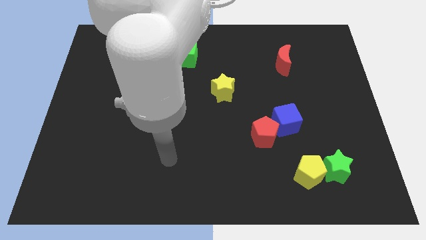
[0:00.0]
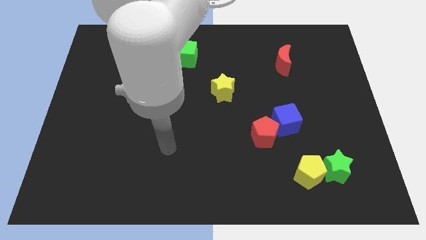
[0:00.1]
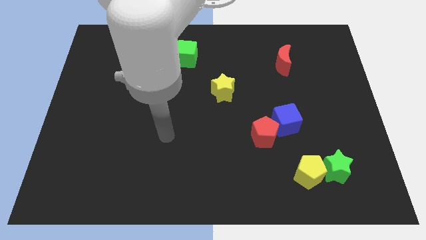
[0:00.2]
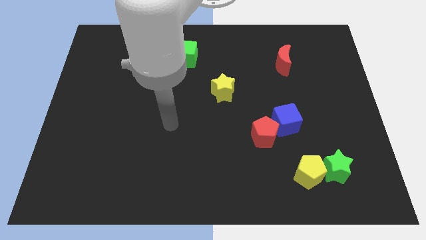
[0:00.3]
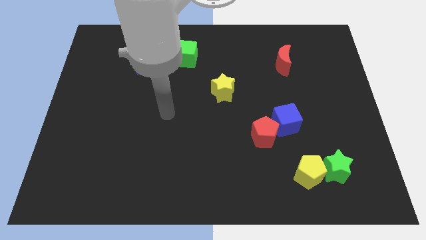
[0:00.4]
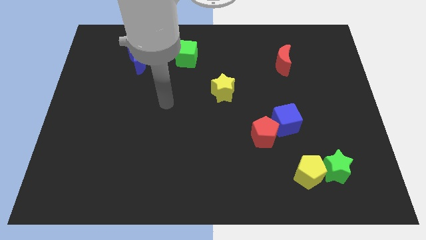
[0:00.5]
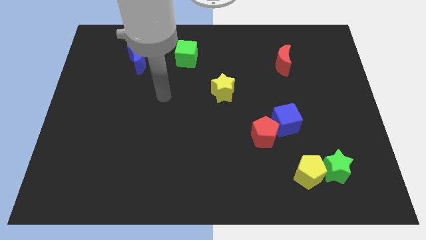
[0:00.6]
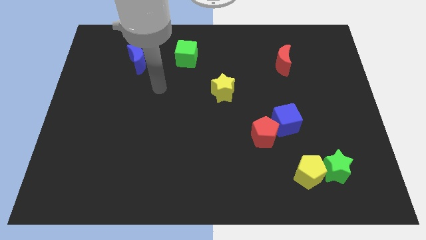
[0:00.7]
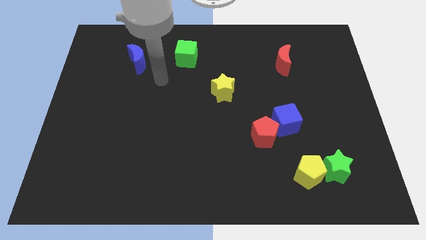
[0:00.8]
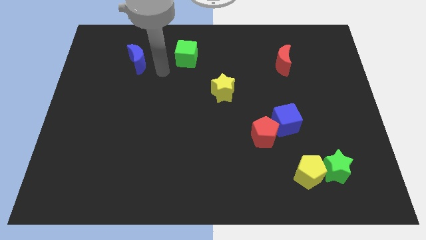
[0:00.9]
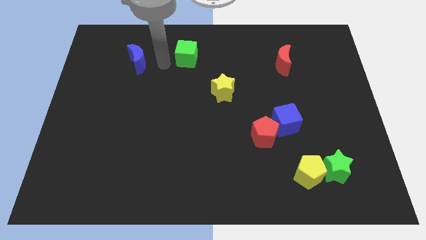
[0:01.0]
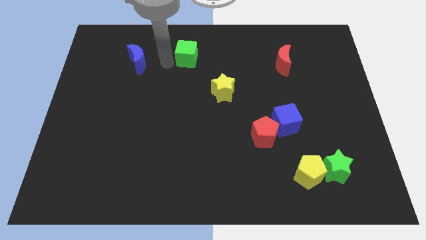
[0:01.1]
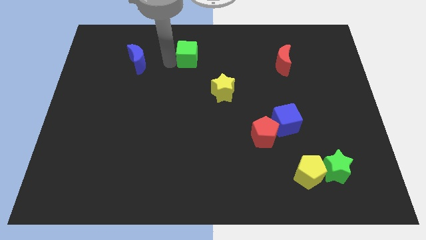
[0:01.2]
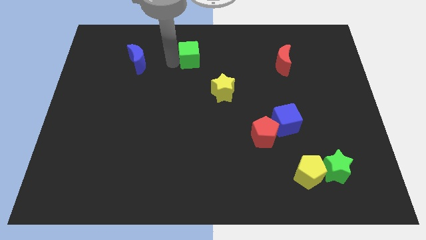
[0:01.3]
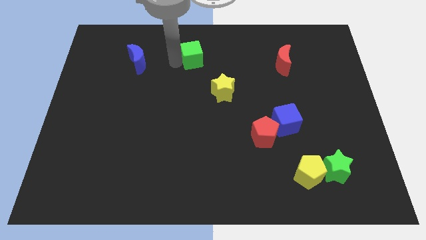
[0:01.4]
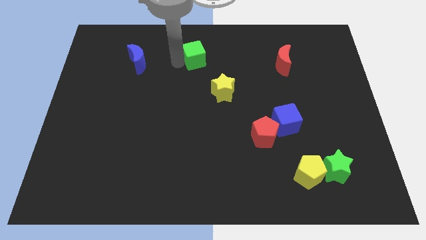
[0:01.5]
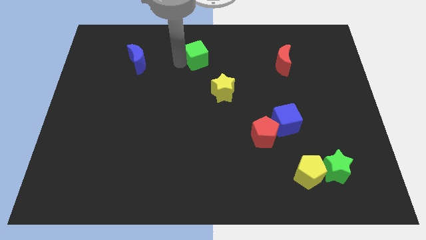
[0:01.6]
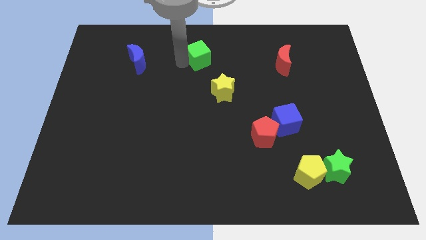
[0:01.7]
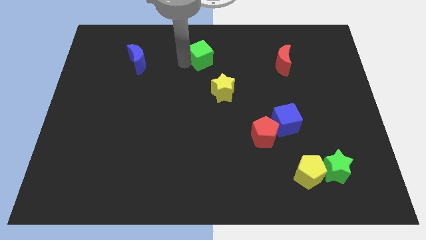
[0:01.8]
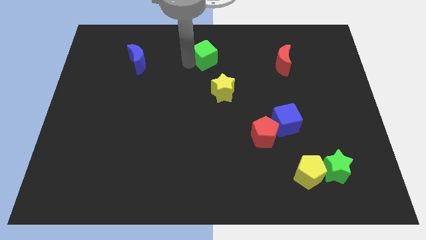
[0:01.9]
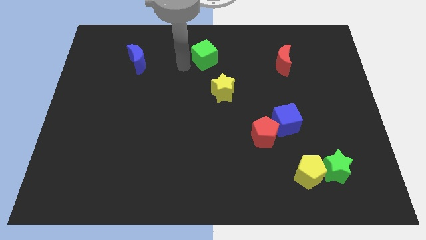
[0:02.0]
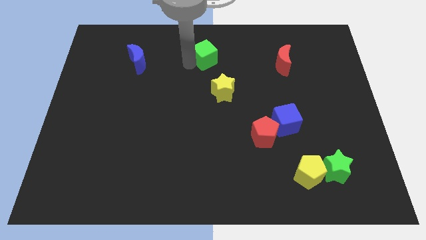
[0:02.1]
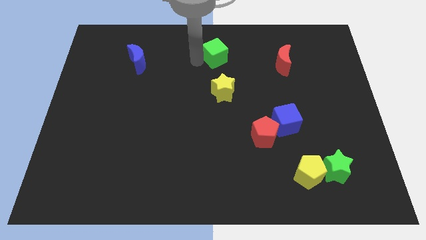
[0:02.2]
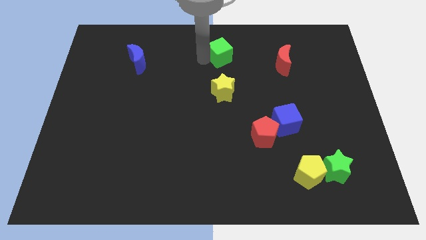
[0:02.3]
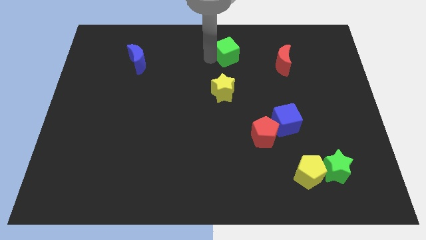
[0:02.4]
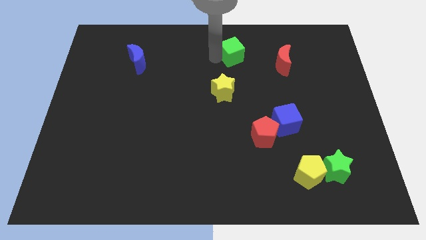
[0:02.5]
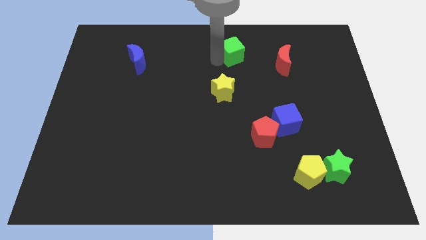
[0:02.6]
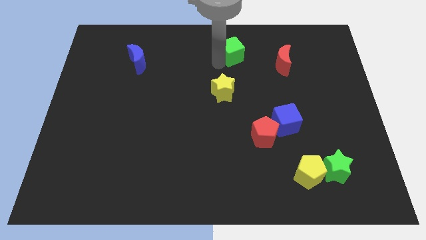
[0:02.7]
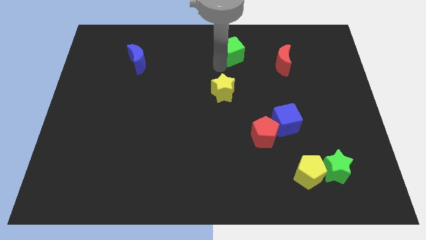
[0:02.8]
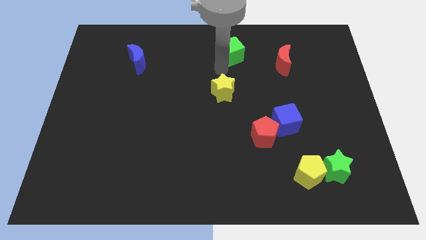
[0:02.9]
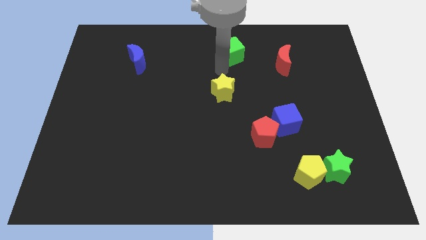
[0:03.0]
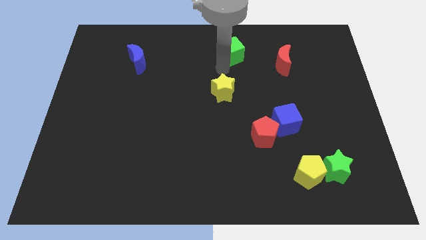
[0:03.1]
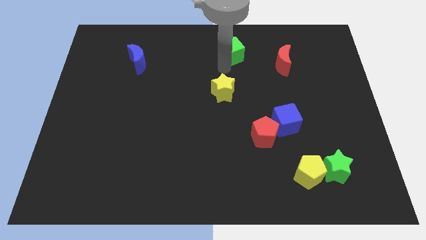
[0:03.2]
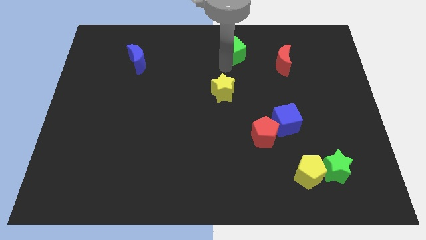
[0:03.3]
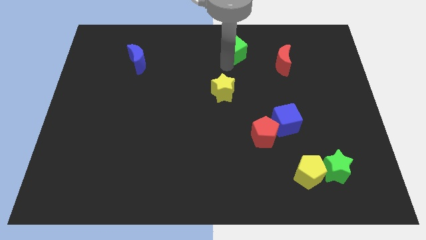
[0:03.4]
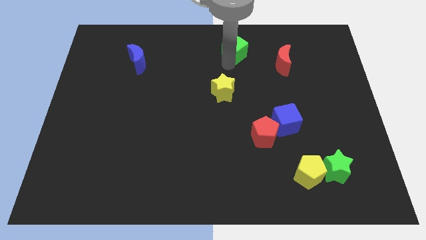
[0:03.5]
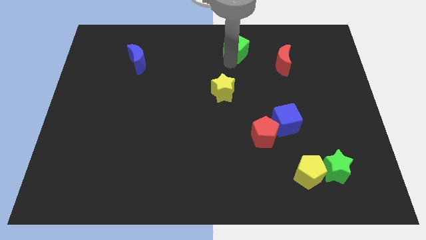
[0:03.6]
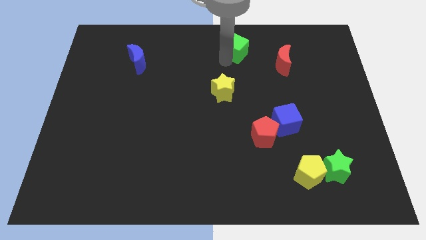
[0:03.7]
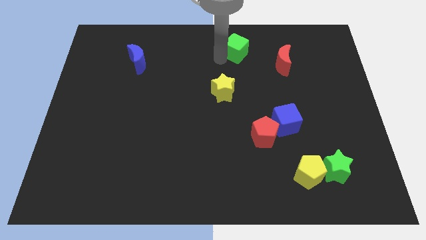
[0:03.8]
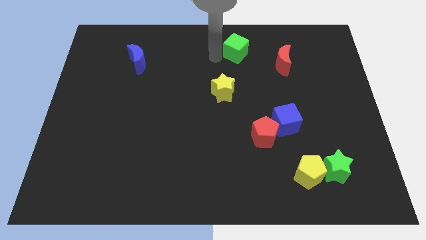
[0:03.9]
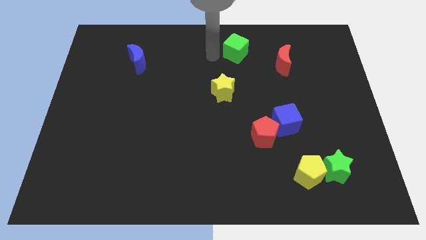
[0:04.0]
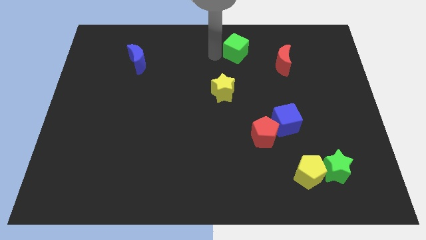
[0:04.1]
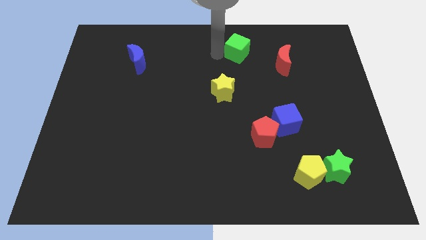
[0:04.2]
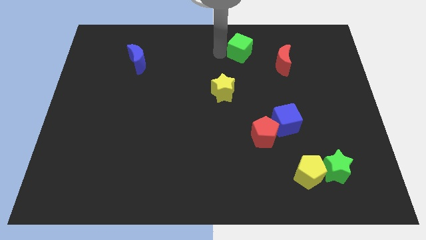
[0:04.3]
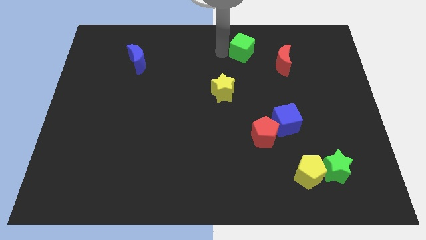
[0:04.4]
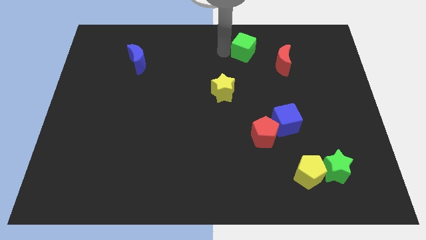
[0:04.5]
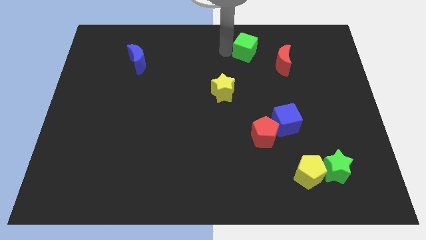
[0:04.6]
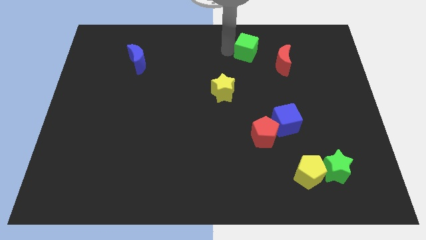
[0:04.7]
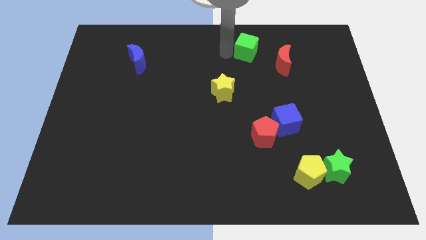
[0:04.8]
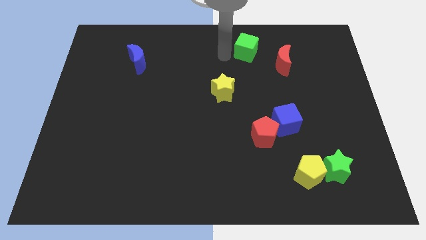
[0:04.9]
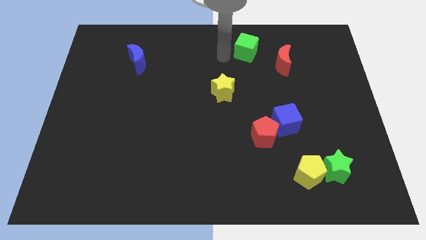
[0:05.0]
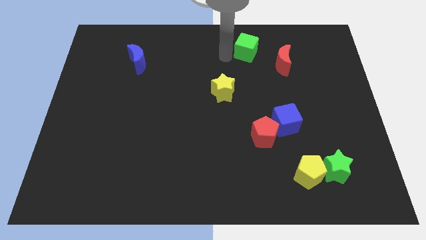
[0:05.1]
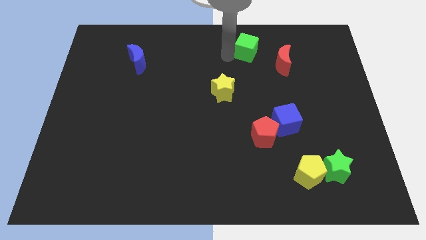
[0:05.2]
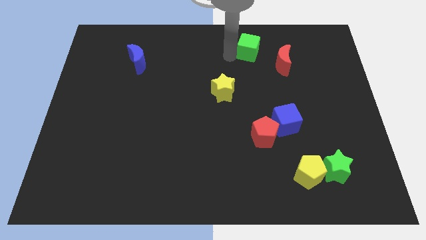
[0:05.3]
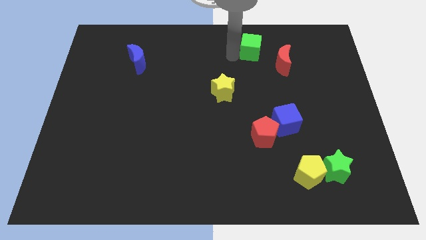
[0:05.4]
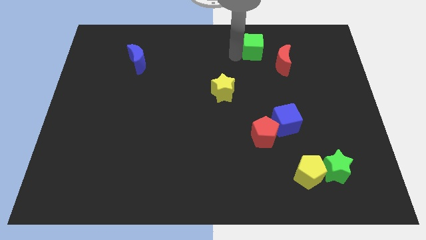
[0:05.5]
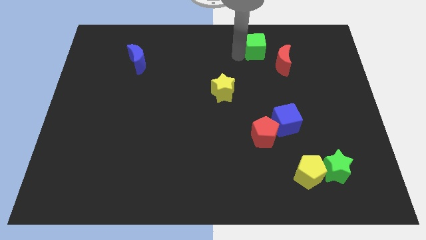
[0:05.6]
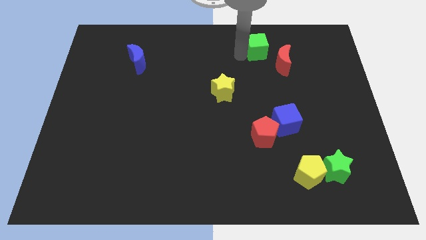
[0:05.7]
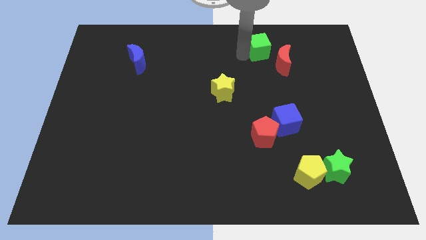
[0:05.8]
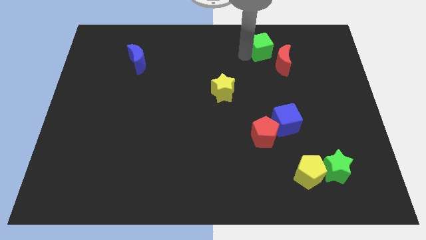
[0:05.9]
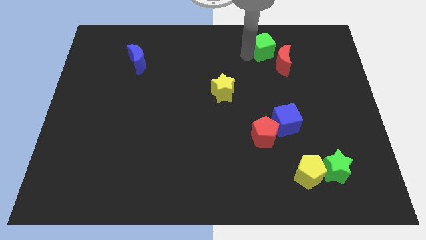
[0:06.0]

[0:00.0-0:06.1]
slide the green cube to the right

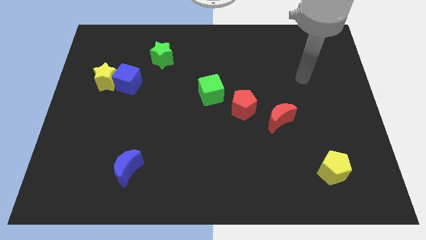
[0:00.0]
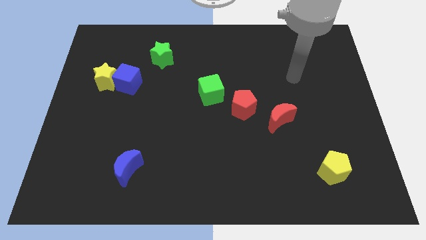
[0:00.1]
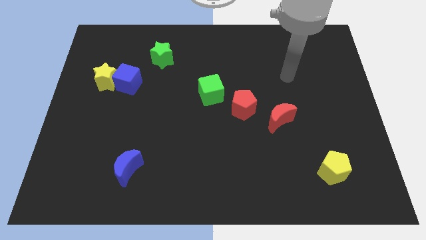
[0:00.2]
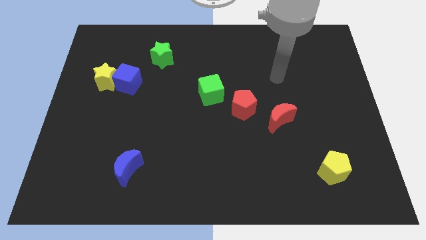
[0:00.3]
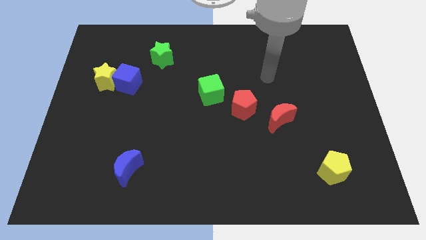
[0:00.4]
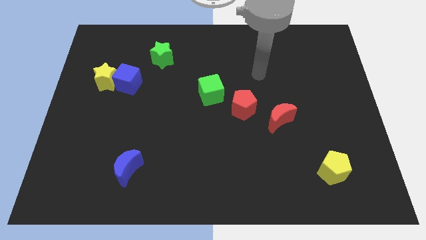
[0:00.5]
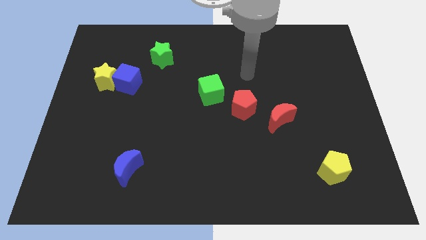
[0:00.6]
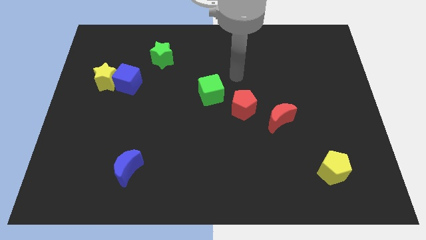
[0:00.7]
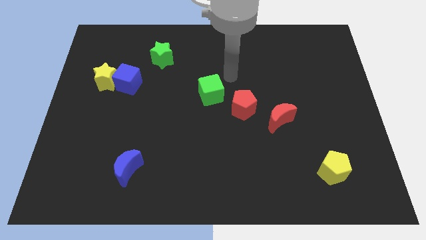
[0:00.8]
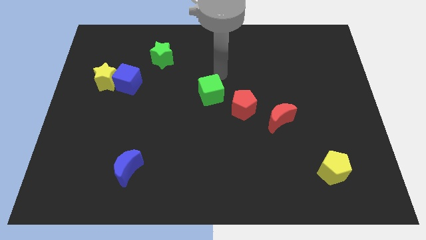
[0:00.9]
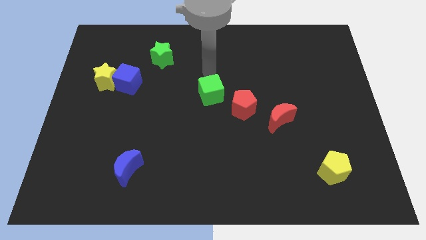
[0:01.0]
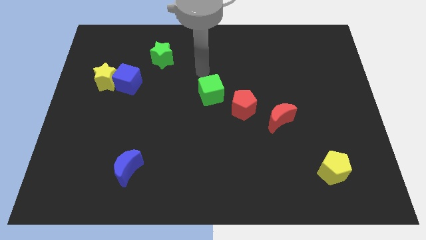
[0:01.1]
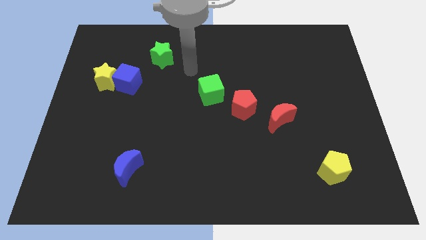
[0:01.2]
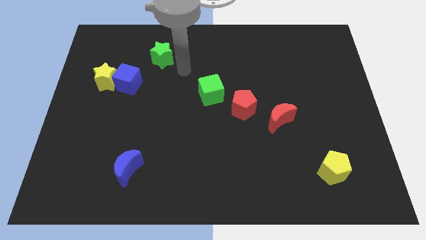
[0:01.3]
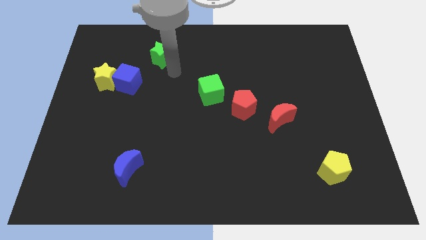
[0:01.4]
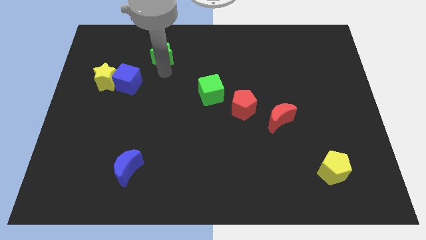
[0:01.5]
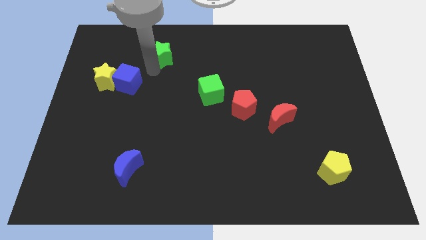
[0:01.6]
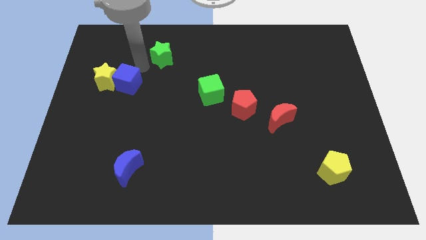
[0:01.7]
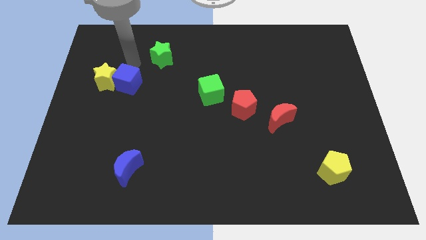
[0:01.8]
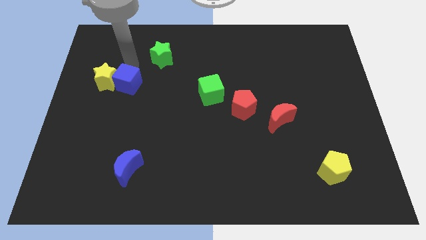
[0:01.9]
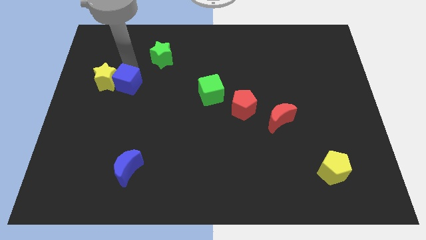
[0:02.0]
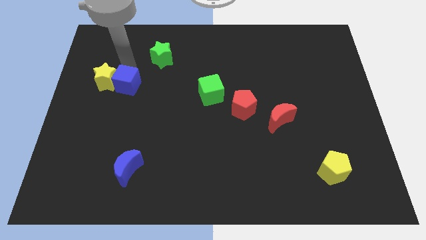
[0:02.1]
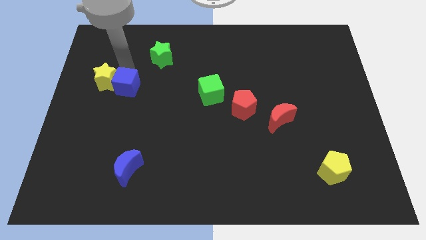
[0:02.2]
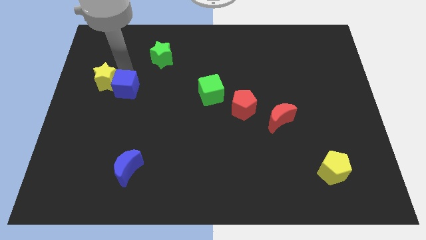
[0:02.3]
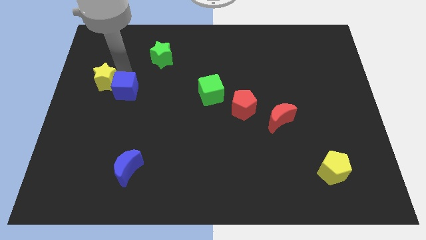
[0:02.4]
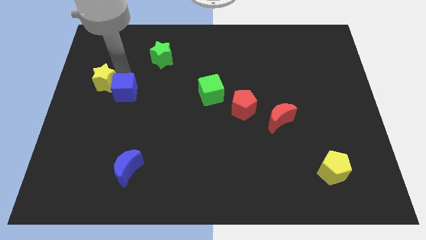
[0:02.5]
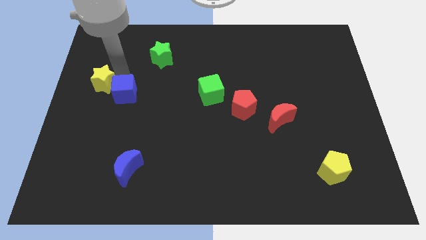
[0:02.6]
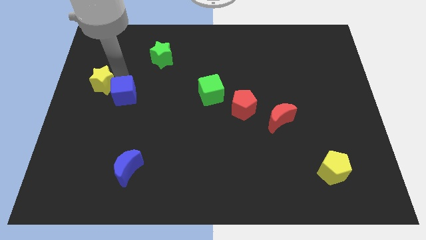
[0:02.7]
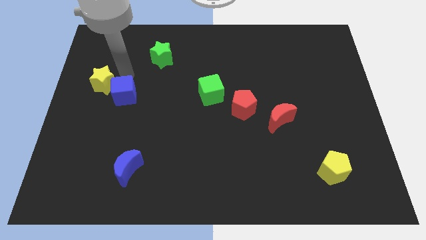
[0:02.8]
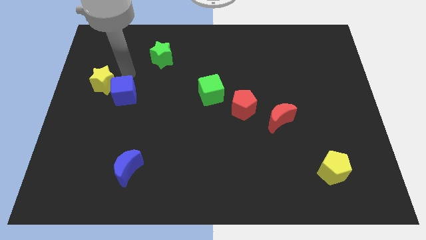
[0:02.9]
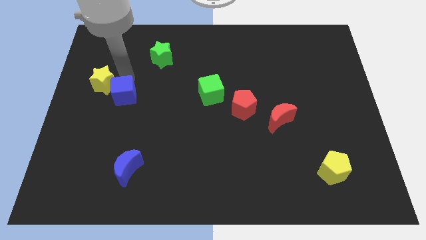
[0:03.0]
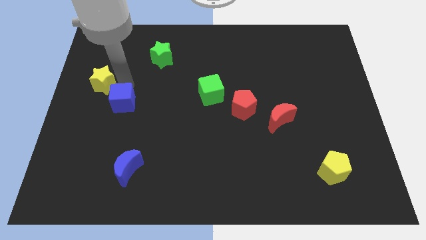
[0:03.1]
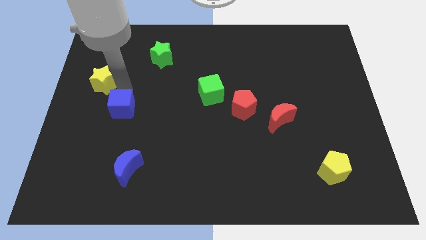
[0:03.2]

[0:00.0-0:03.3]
slightly move the blue cube down
